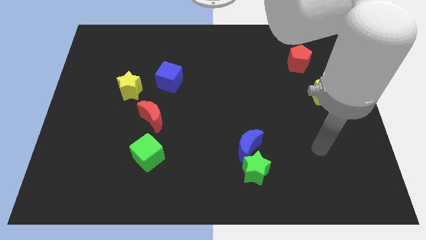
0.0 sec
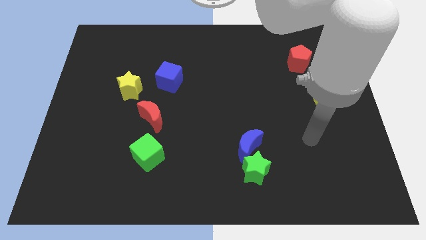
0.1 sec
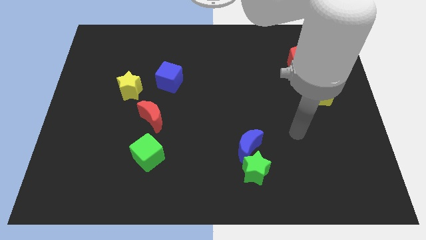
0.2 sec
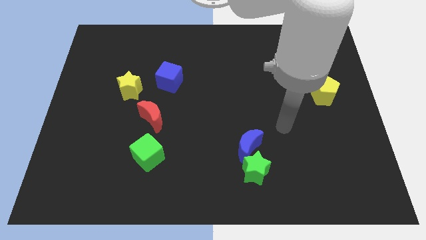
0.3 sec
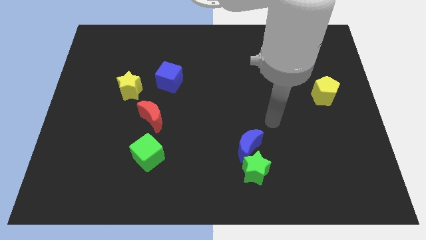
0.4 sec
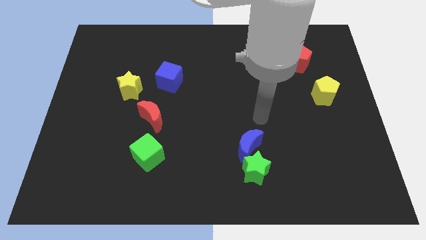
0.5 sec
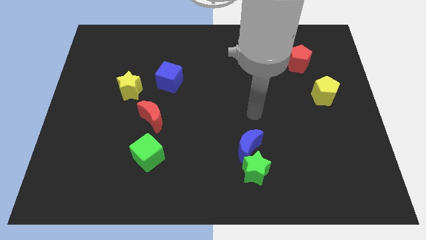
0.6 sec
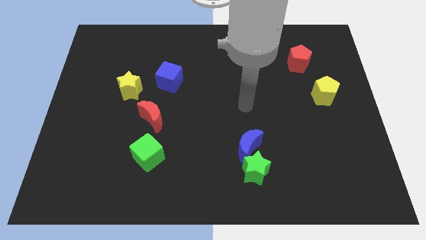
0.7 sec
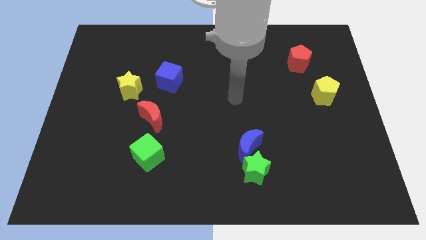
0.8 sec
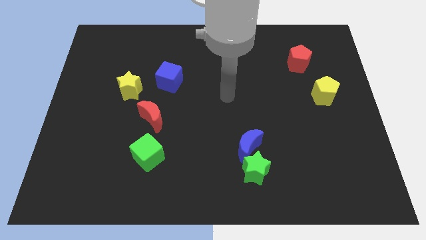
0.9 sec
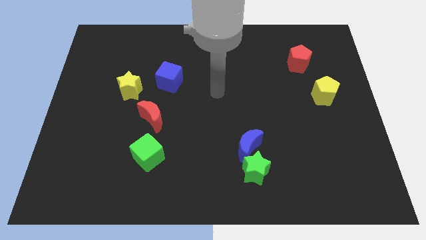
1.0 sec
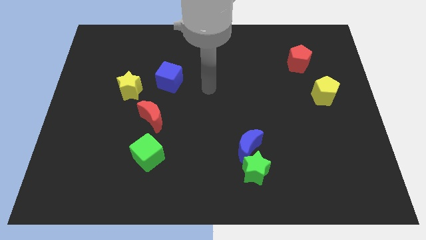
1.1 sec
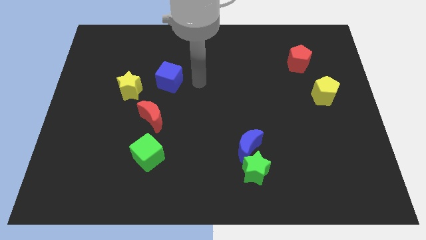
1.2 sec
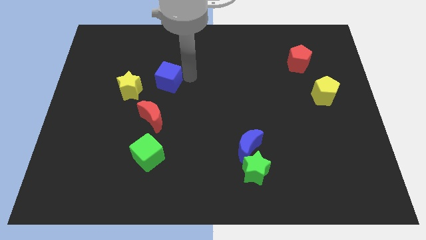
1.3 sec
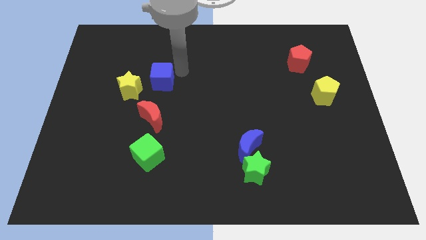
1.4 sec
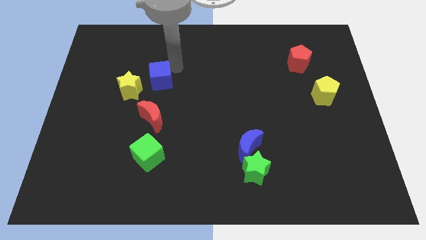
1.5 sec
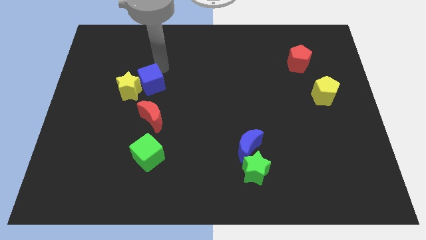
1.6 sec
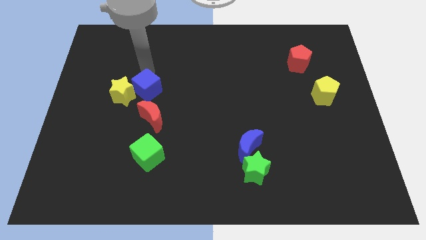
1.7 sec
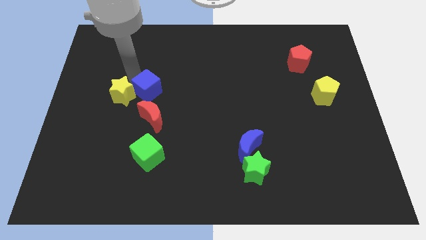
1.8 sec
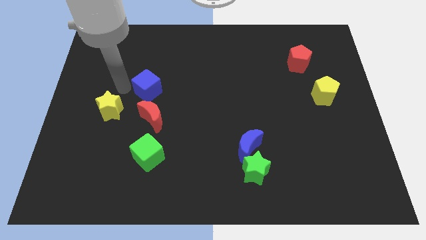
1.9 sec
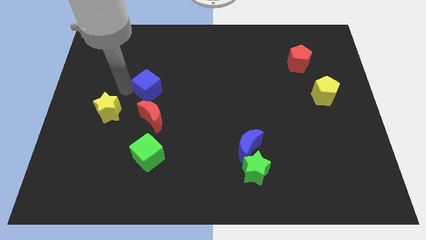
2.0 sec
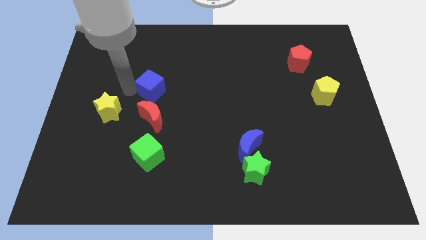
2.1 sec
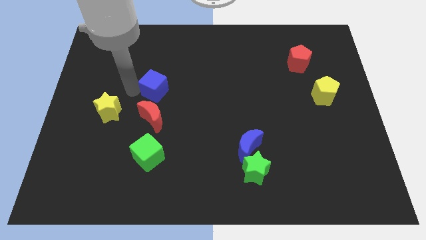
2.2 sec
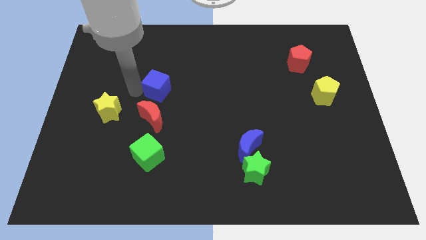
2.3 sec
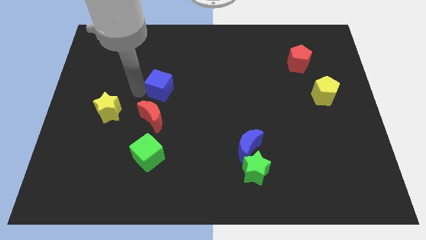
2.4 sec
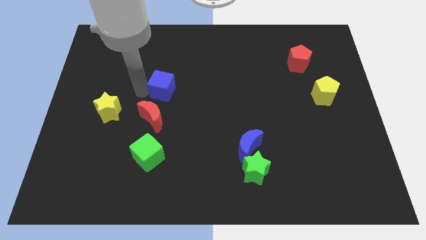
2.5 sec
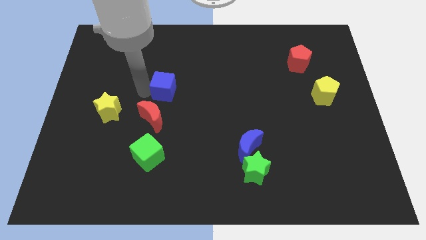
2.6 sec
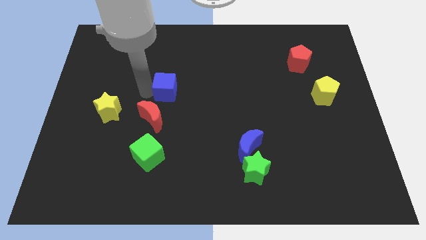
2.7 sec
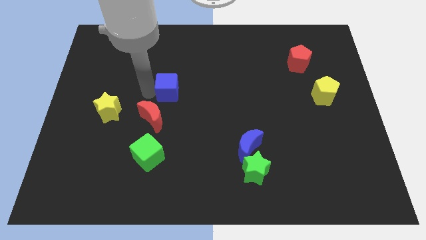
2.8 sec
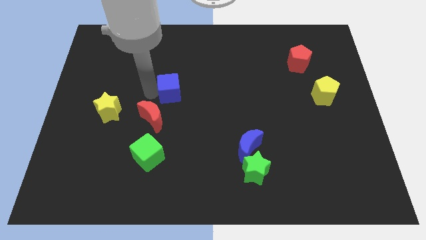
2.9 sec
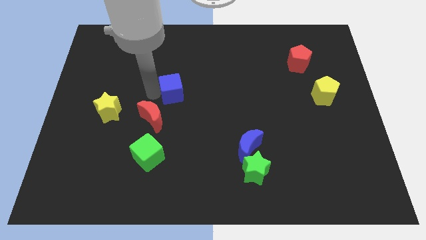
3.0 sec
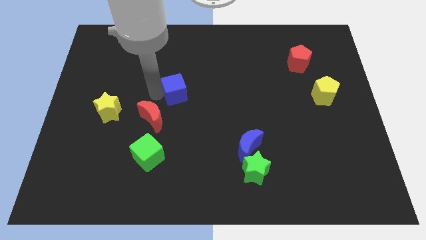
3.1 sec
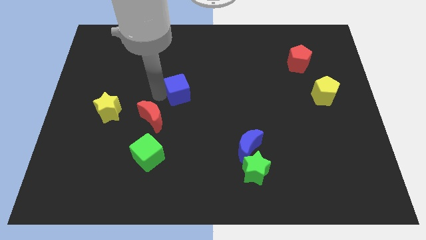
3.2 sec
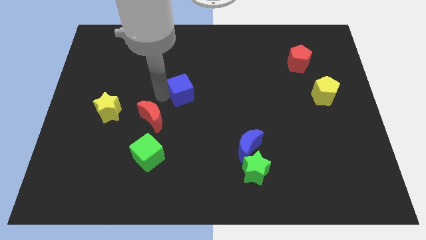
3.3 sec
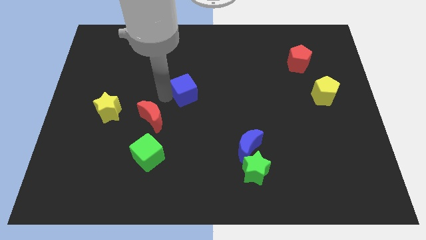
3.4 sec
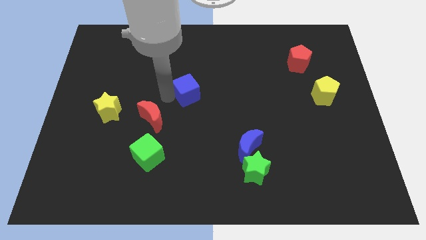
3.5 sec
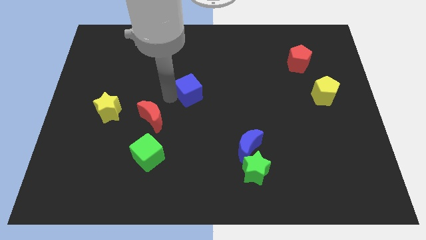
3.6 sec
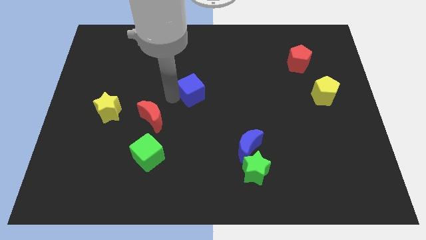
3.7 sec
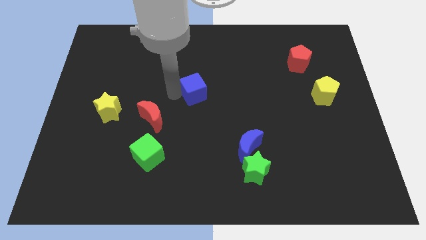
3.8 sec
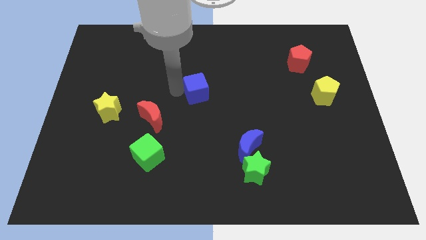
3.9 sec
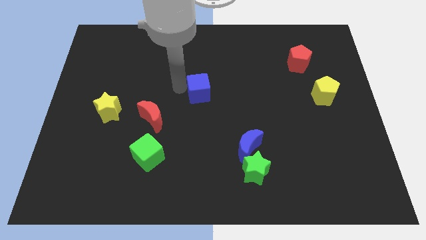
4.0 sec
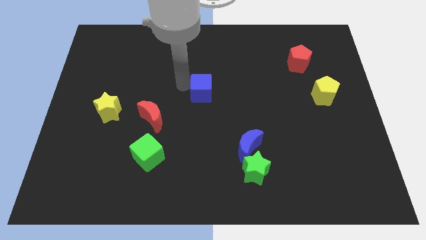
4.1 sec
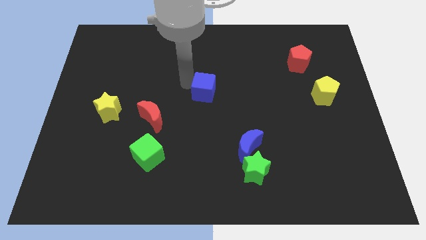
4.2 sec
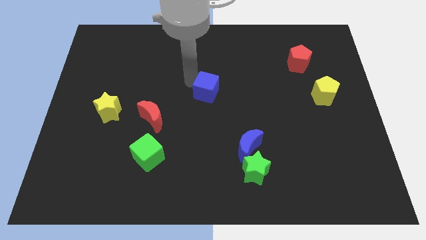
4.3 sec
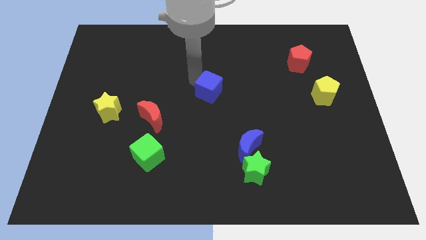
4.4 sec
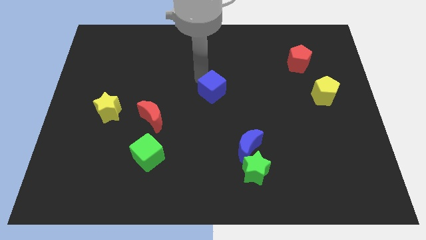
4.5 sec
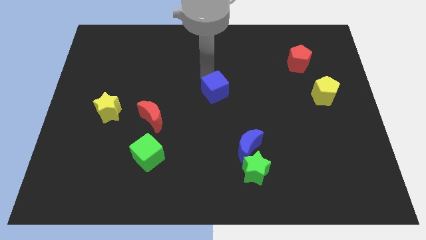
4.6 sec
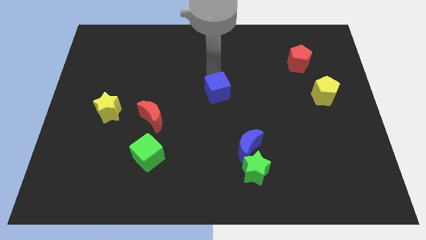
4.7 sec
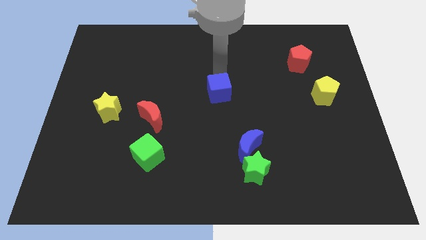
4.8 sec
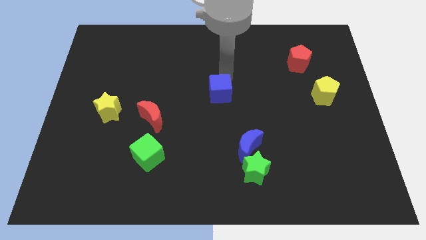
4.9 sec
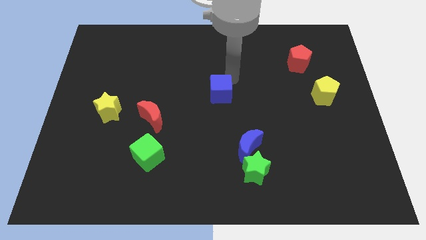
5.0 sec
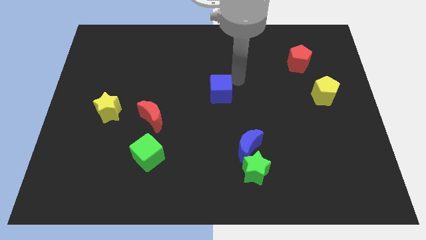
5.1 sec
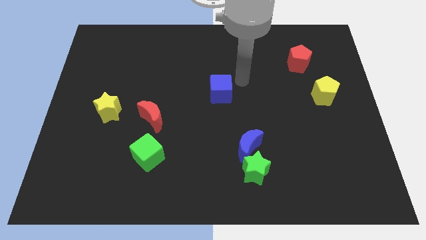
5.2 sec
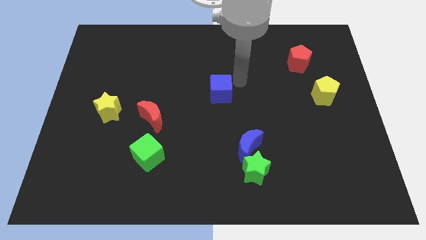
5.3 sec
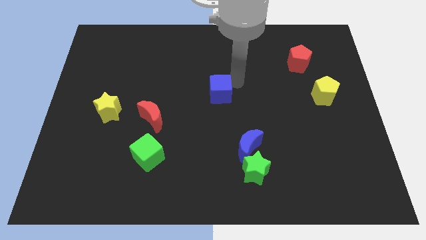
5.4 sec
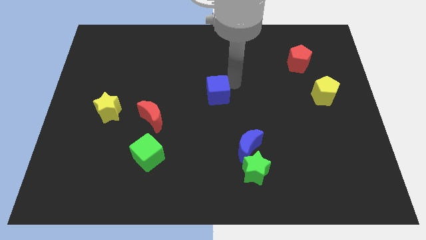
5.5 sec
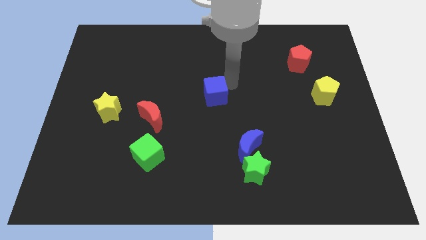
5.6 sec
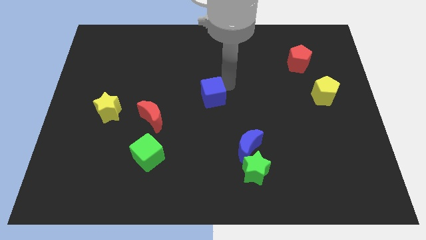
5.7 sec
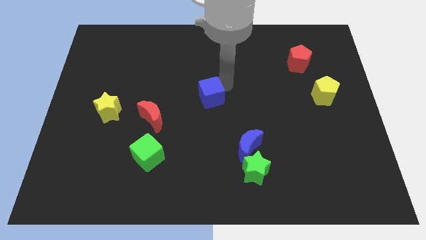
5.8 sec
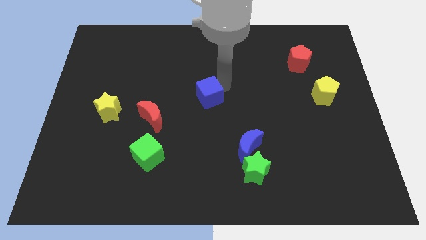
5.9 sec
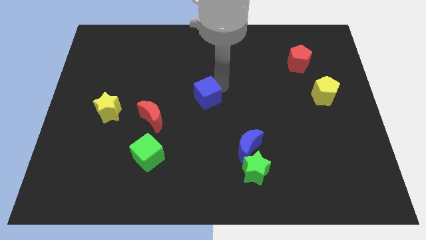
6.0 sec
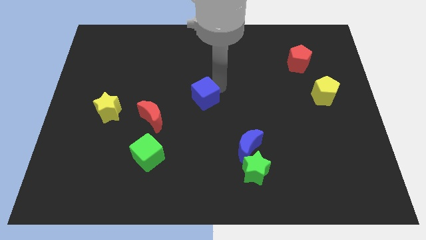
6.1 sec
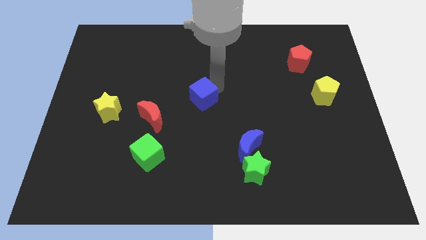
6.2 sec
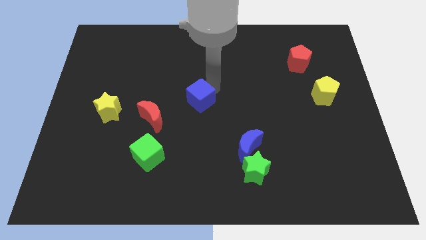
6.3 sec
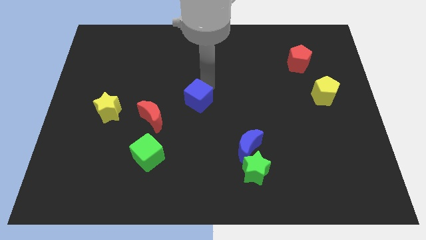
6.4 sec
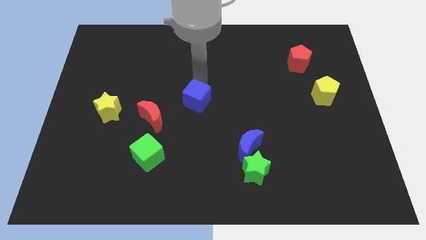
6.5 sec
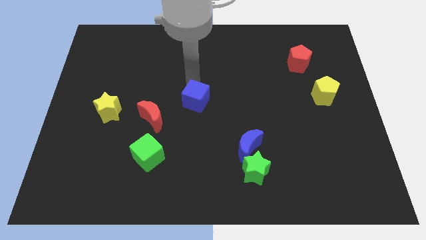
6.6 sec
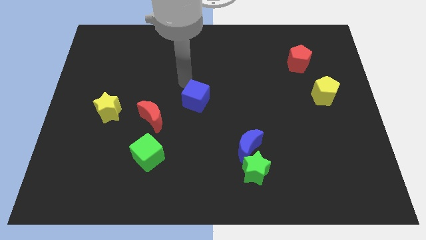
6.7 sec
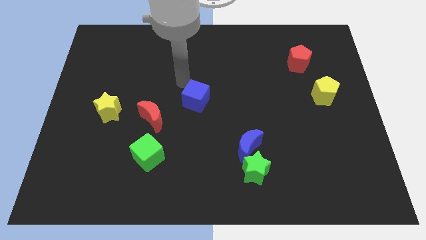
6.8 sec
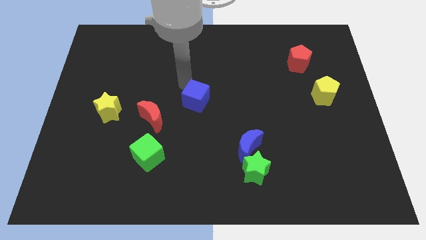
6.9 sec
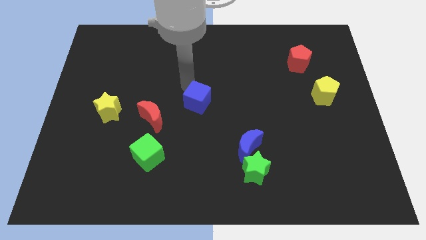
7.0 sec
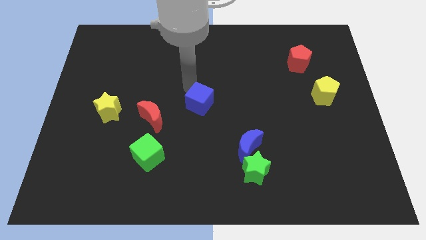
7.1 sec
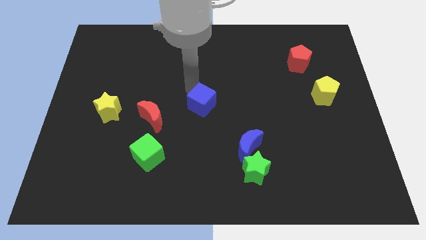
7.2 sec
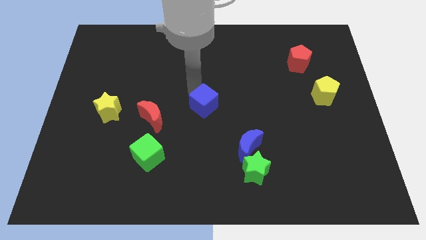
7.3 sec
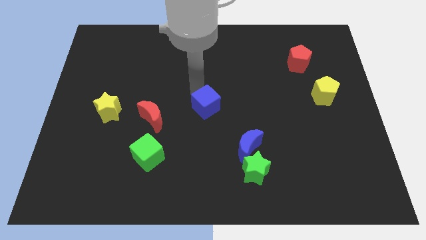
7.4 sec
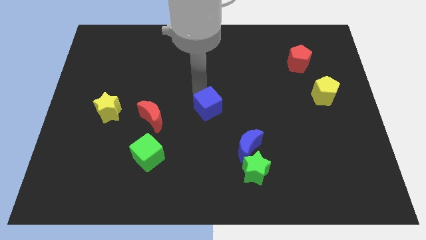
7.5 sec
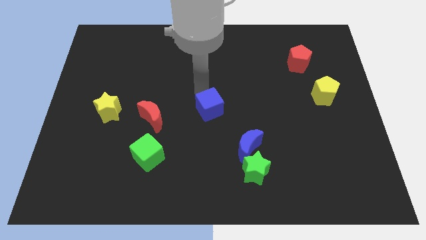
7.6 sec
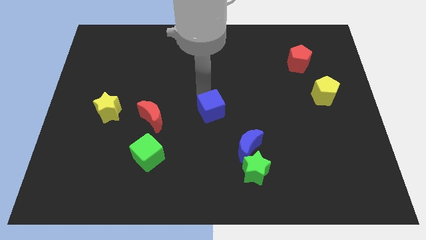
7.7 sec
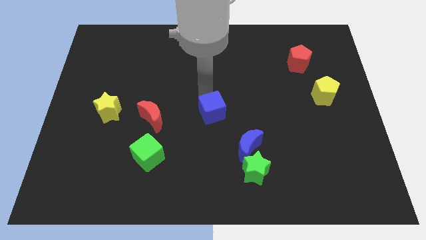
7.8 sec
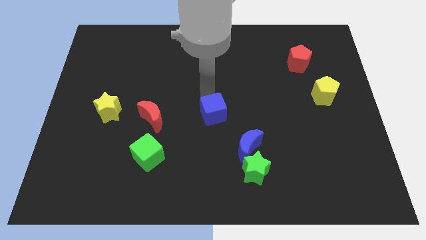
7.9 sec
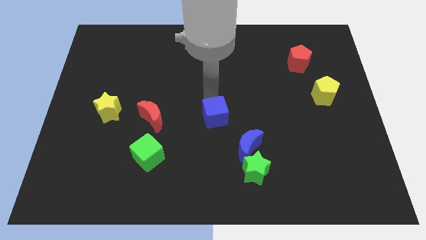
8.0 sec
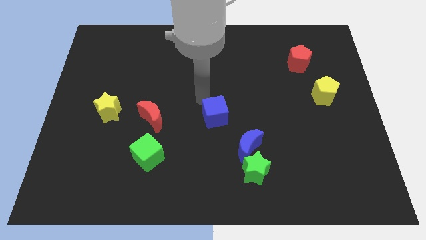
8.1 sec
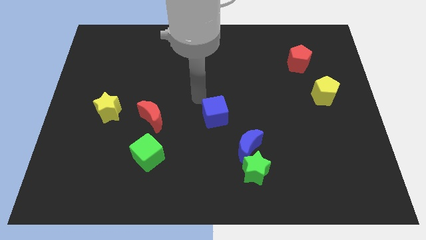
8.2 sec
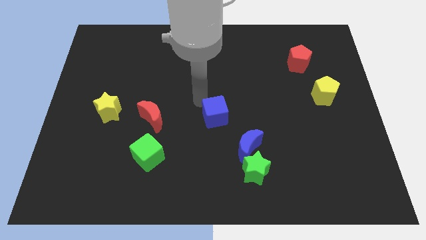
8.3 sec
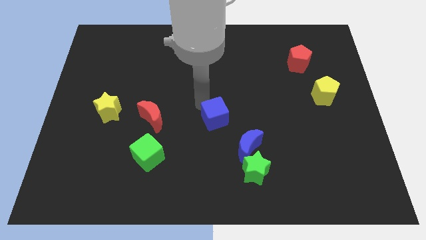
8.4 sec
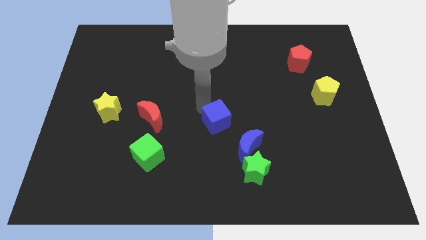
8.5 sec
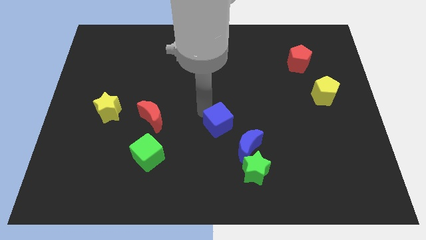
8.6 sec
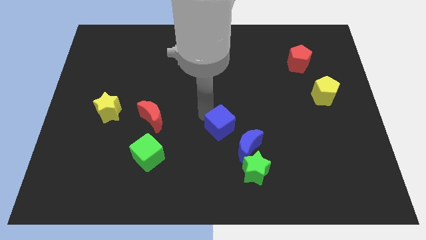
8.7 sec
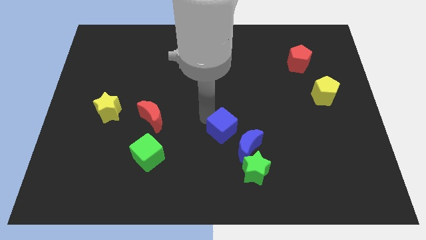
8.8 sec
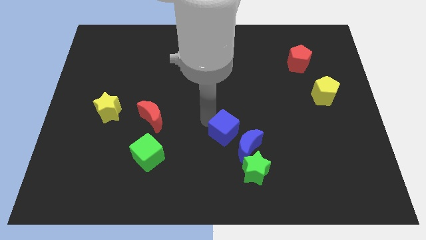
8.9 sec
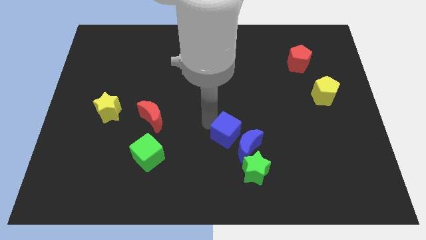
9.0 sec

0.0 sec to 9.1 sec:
move the blue cube close to the blue moon
